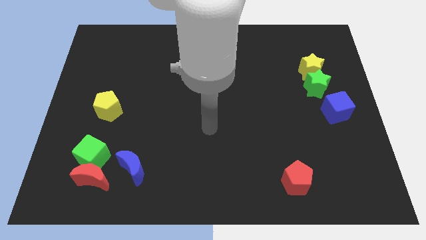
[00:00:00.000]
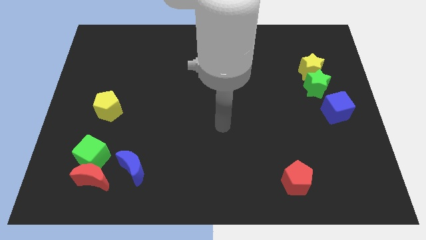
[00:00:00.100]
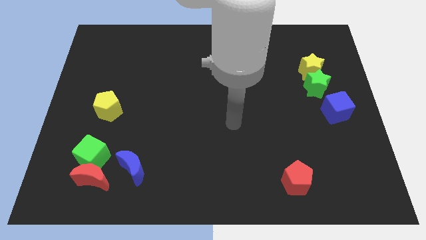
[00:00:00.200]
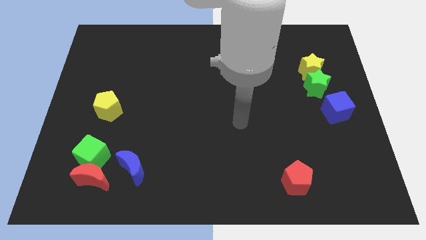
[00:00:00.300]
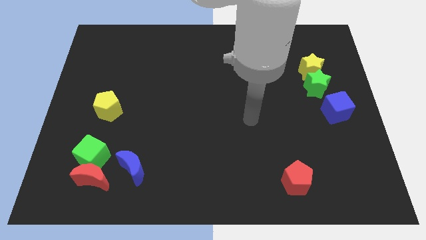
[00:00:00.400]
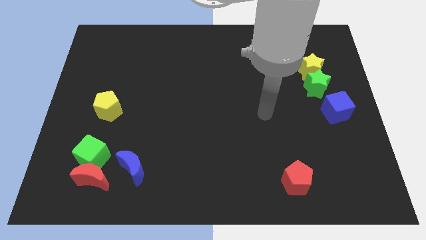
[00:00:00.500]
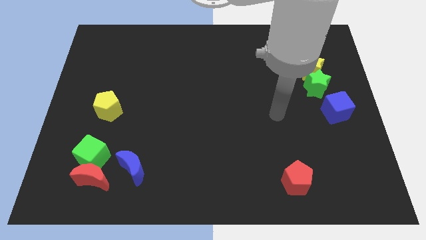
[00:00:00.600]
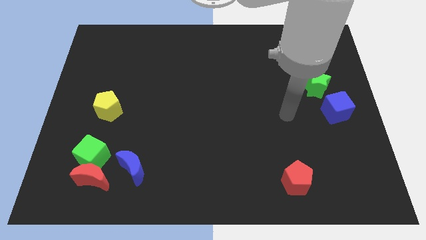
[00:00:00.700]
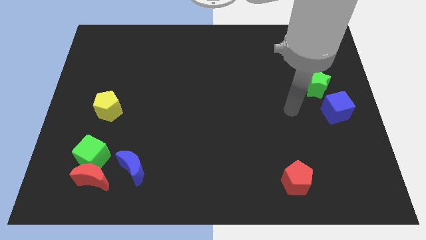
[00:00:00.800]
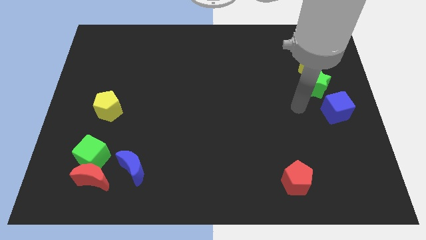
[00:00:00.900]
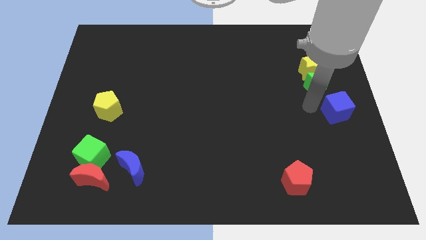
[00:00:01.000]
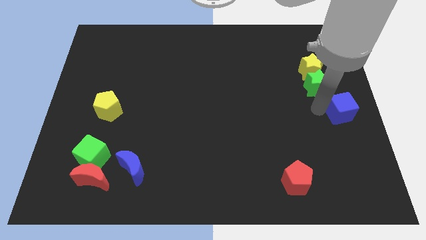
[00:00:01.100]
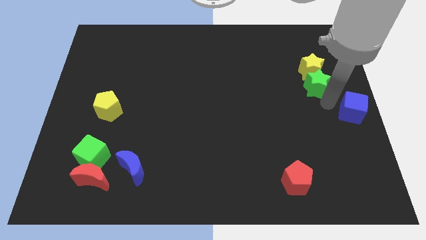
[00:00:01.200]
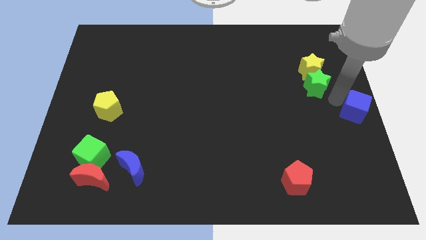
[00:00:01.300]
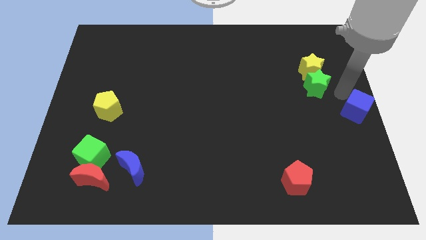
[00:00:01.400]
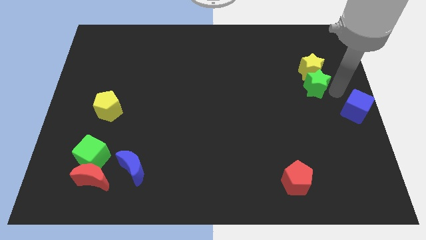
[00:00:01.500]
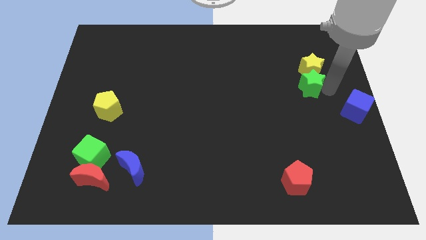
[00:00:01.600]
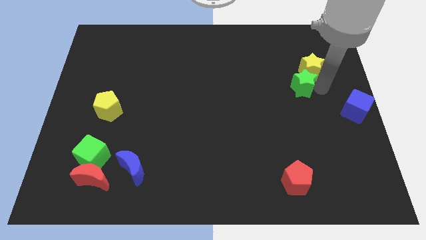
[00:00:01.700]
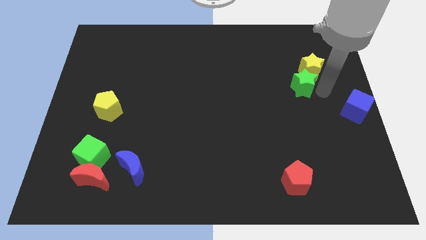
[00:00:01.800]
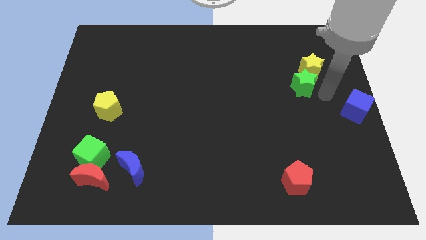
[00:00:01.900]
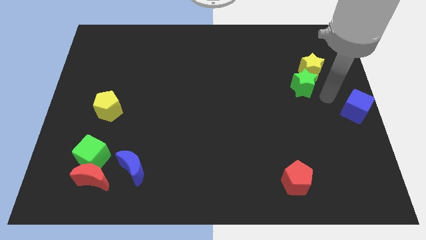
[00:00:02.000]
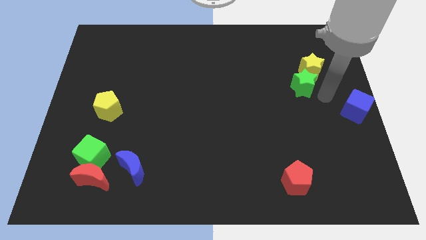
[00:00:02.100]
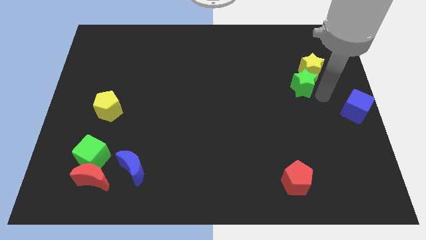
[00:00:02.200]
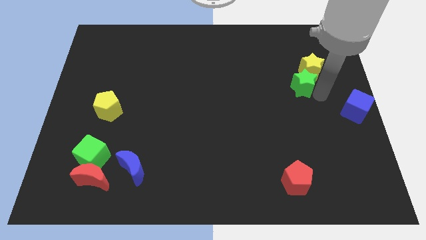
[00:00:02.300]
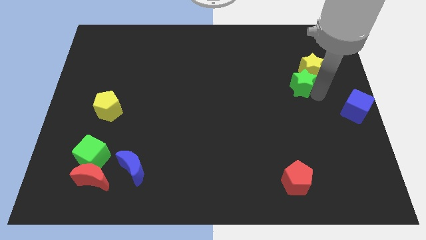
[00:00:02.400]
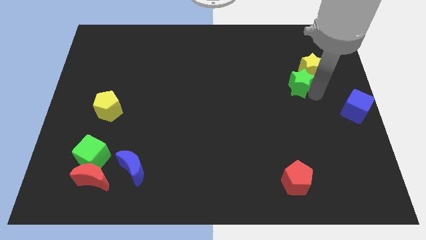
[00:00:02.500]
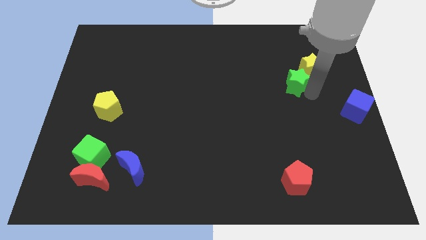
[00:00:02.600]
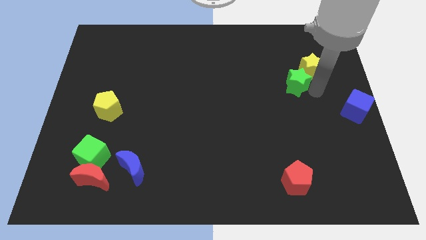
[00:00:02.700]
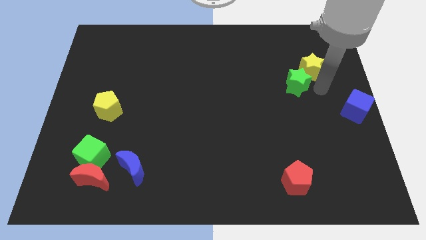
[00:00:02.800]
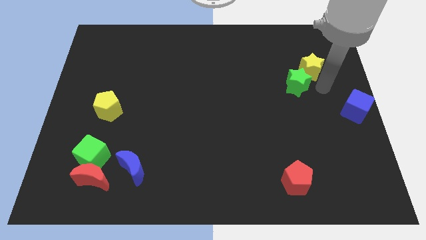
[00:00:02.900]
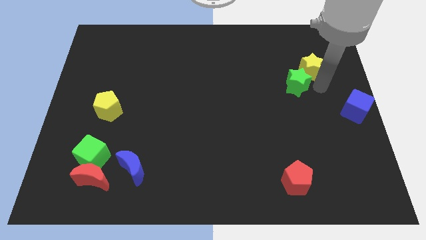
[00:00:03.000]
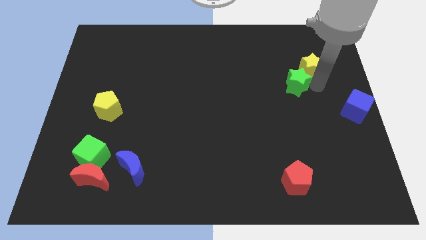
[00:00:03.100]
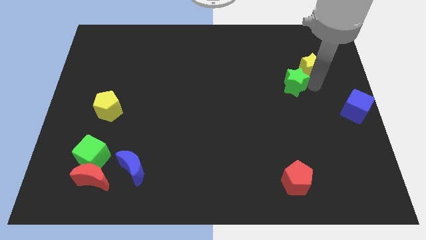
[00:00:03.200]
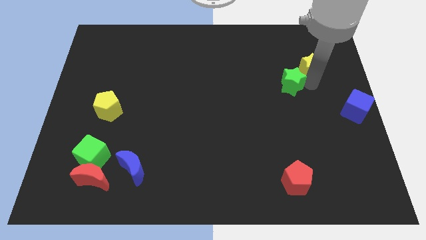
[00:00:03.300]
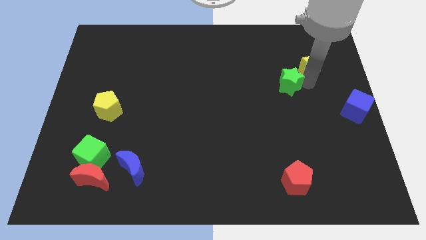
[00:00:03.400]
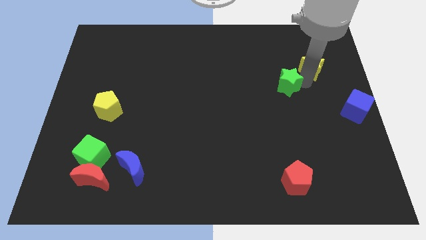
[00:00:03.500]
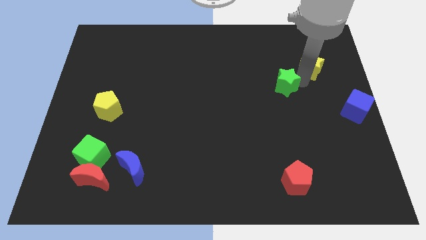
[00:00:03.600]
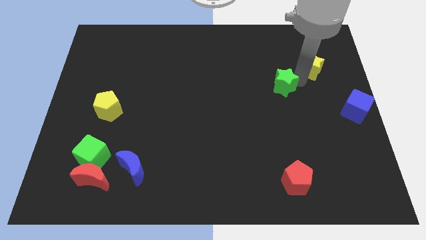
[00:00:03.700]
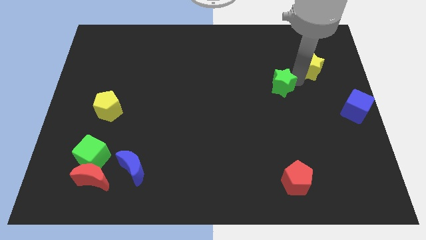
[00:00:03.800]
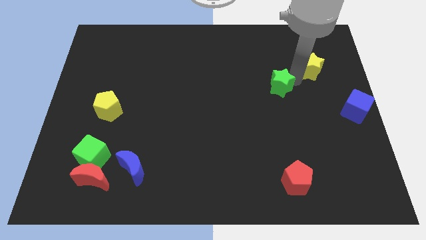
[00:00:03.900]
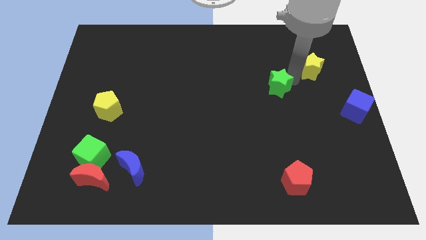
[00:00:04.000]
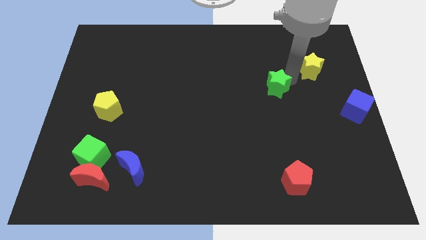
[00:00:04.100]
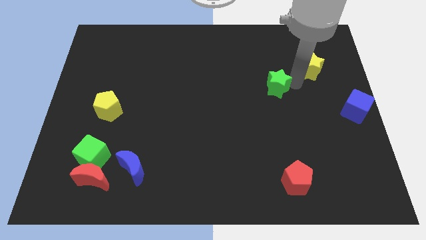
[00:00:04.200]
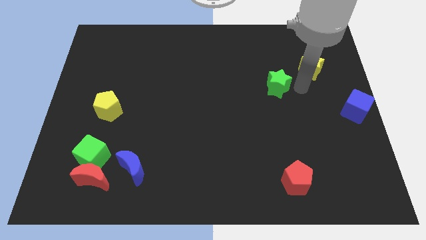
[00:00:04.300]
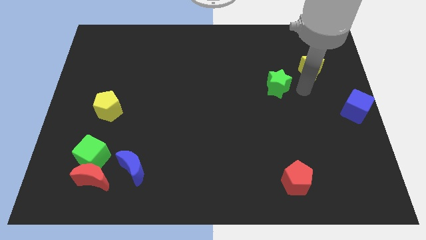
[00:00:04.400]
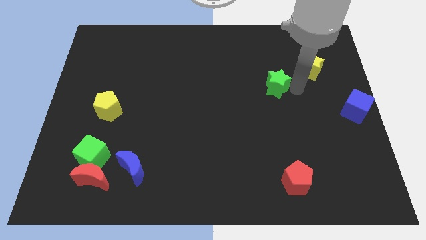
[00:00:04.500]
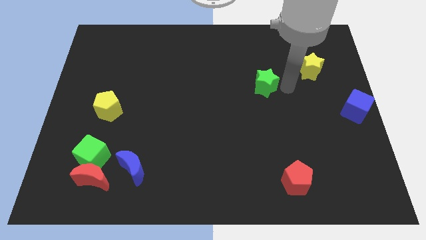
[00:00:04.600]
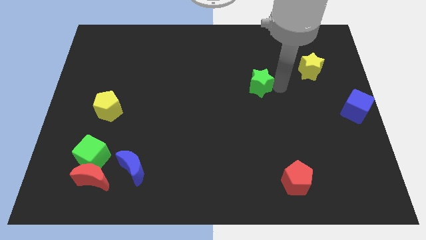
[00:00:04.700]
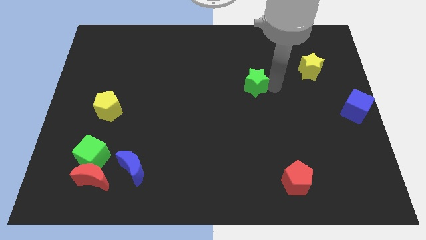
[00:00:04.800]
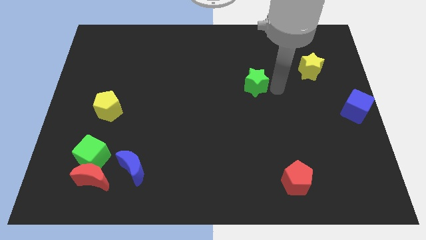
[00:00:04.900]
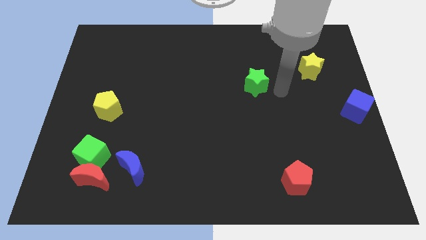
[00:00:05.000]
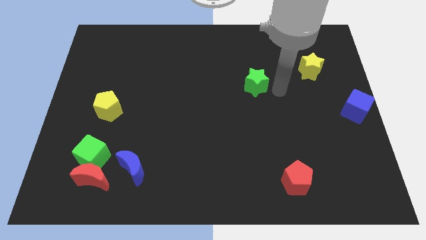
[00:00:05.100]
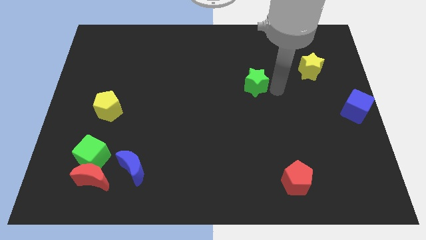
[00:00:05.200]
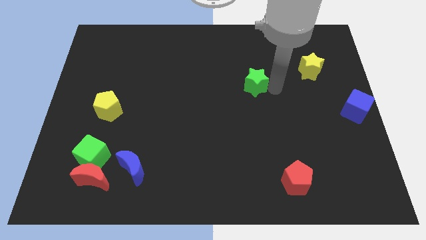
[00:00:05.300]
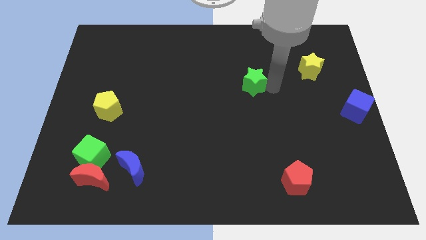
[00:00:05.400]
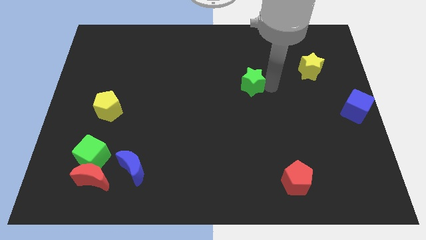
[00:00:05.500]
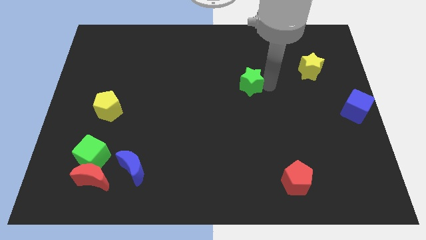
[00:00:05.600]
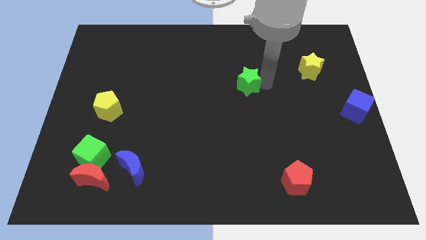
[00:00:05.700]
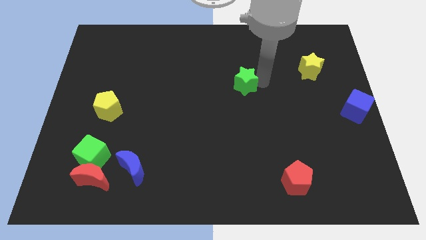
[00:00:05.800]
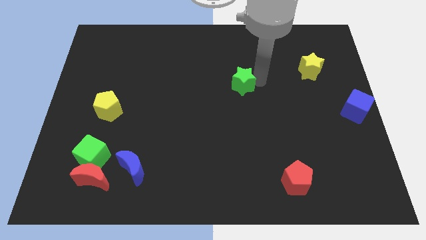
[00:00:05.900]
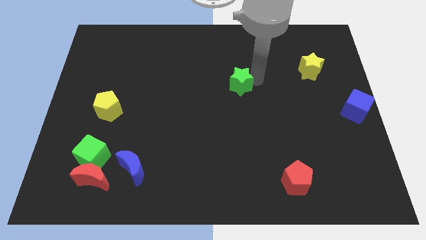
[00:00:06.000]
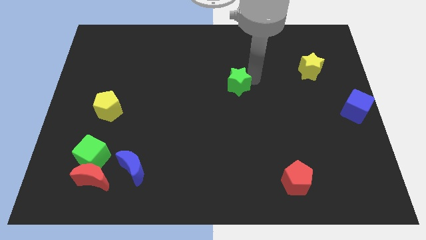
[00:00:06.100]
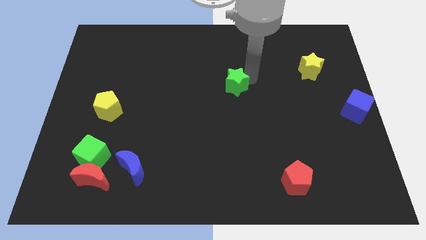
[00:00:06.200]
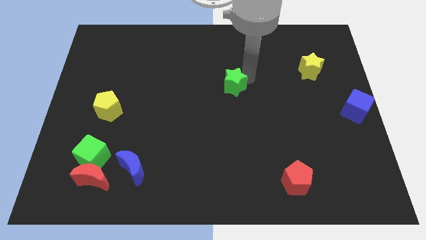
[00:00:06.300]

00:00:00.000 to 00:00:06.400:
push the green star to the left

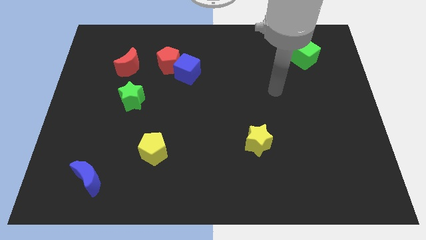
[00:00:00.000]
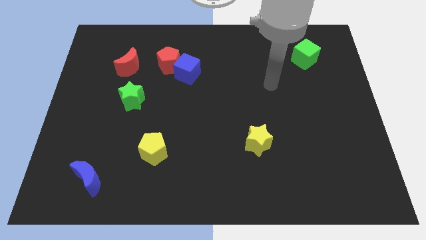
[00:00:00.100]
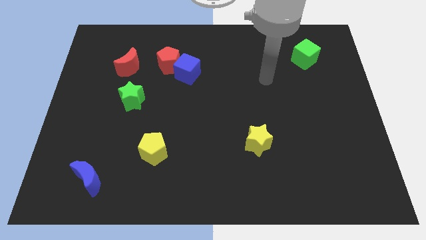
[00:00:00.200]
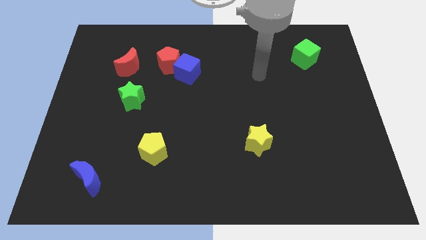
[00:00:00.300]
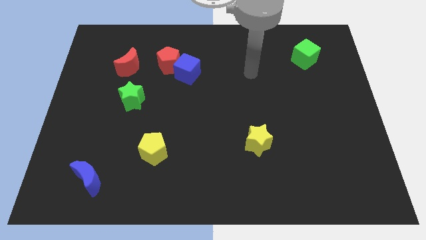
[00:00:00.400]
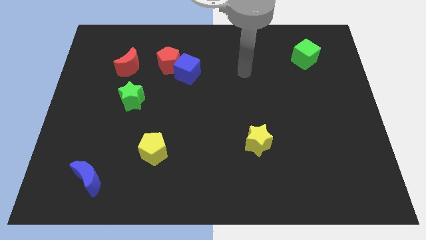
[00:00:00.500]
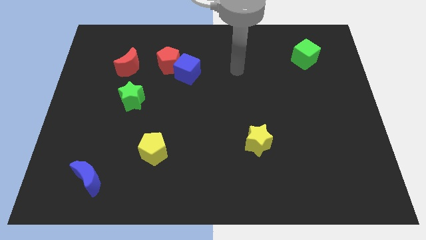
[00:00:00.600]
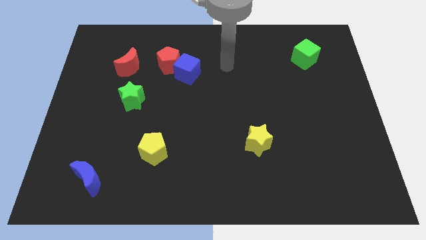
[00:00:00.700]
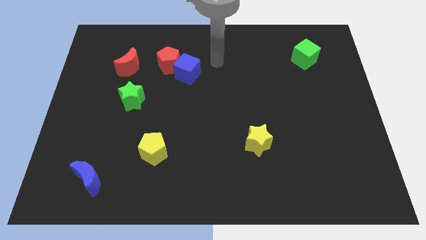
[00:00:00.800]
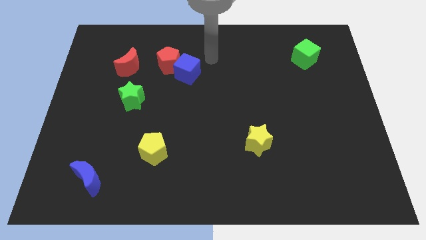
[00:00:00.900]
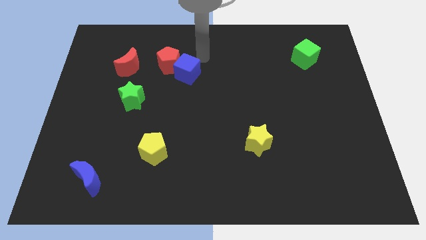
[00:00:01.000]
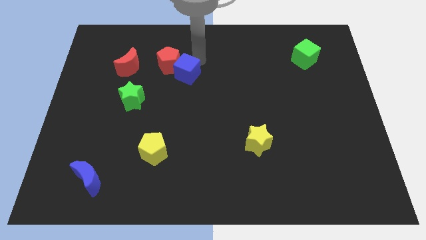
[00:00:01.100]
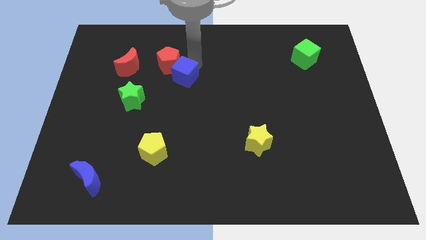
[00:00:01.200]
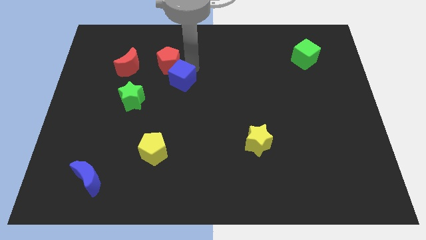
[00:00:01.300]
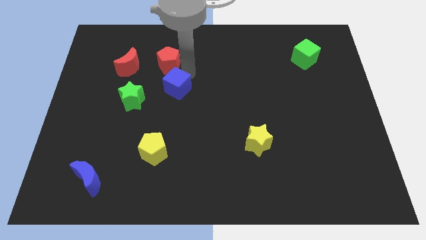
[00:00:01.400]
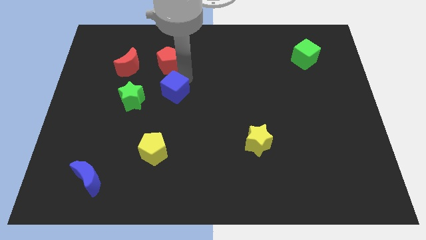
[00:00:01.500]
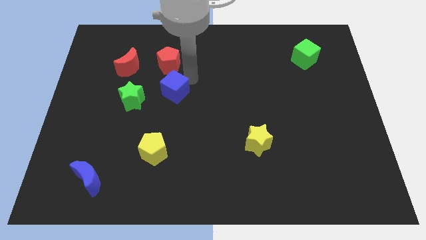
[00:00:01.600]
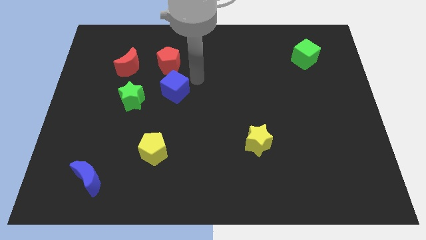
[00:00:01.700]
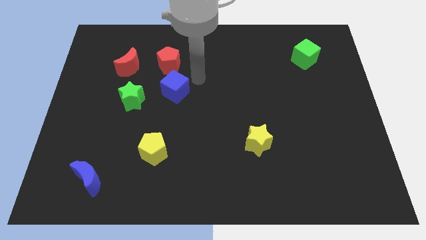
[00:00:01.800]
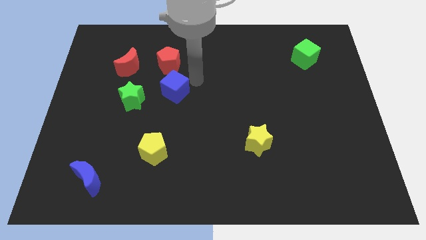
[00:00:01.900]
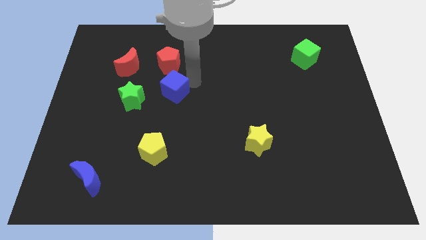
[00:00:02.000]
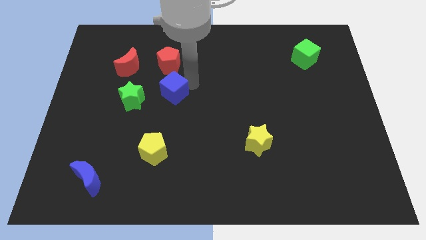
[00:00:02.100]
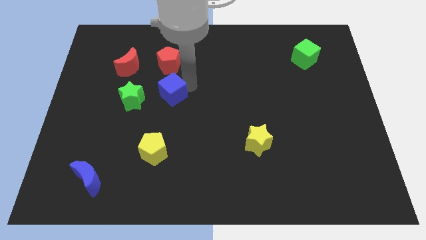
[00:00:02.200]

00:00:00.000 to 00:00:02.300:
slide the blue cube down and to the left a bit
